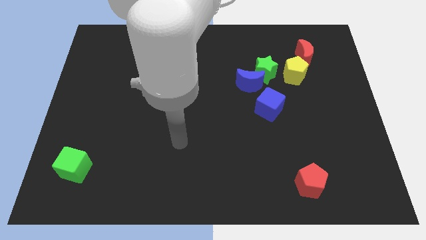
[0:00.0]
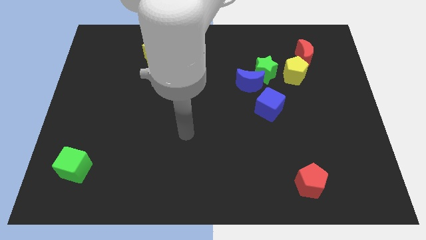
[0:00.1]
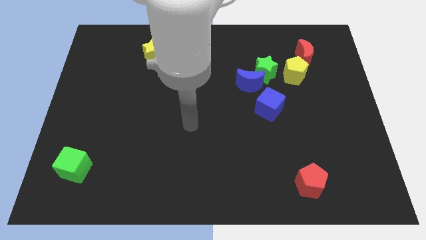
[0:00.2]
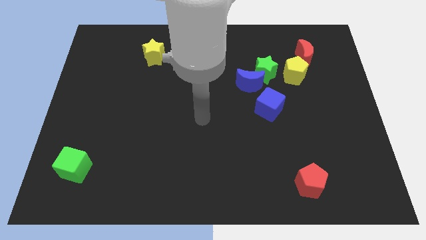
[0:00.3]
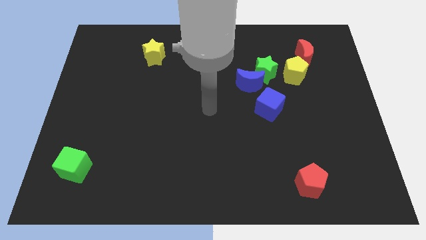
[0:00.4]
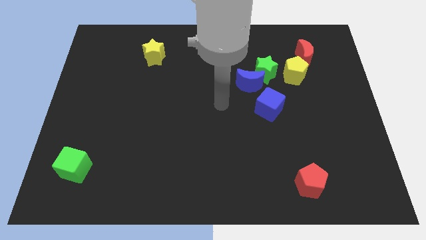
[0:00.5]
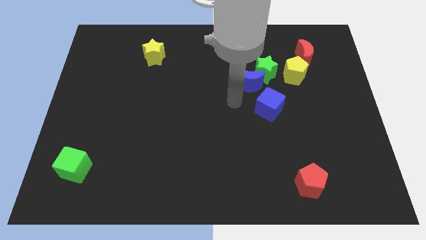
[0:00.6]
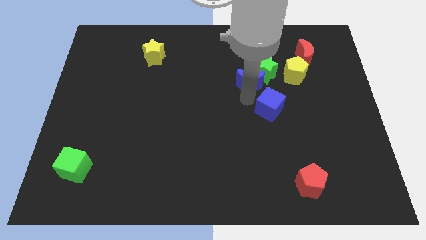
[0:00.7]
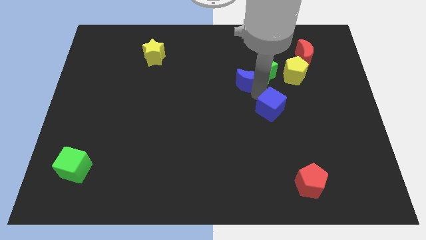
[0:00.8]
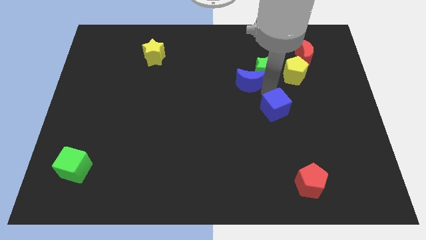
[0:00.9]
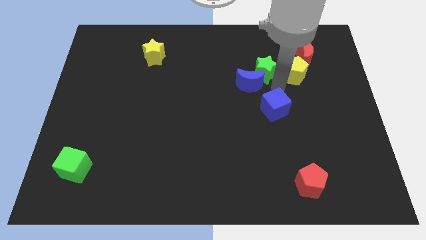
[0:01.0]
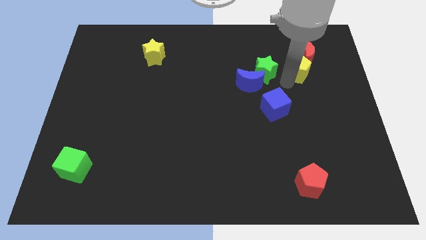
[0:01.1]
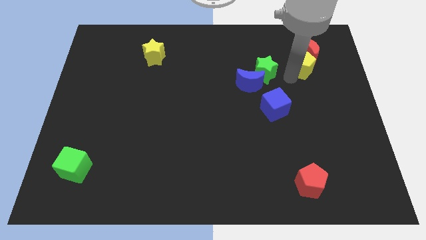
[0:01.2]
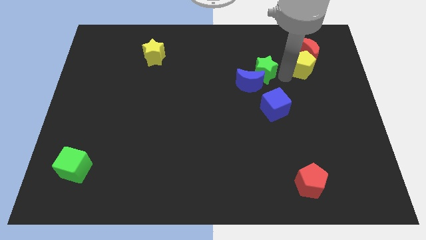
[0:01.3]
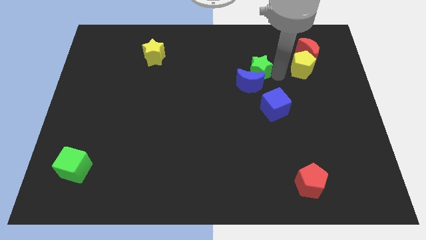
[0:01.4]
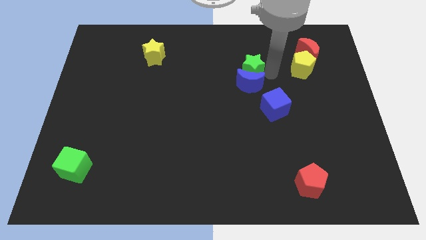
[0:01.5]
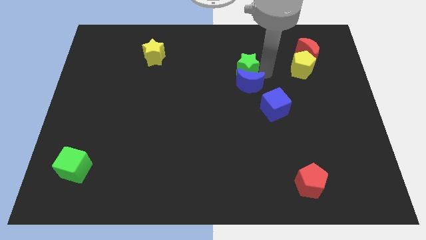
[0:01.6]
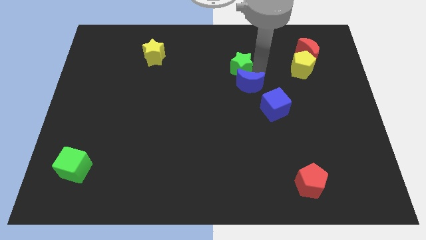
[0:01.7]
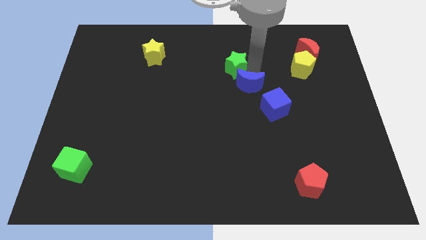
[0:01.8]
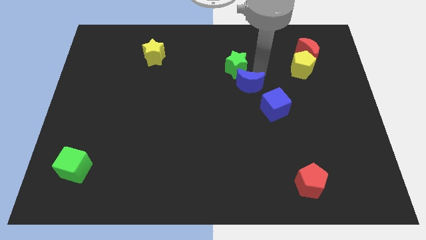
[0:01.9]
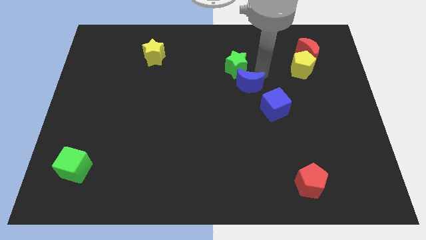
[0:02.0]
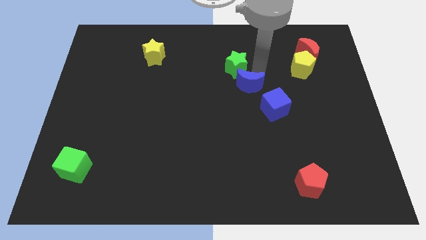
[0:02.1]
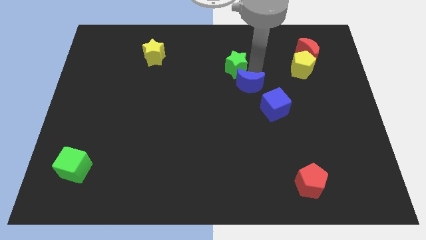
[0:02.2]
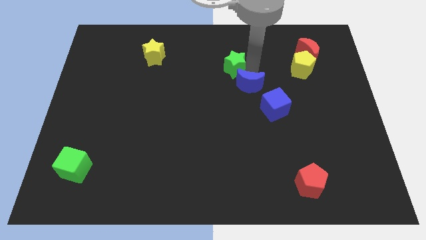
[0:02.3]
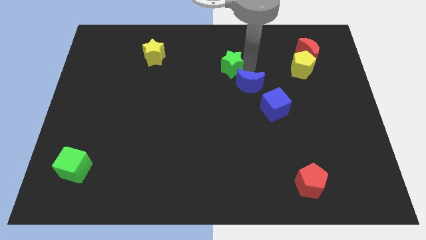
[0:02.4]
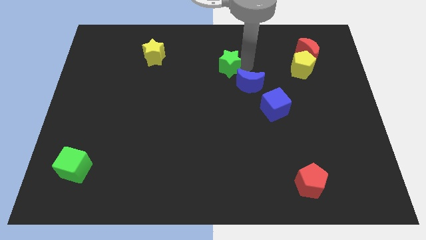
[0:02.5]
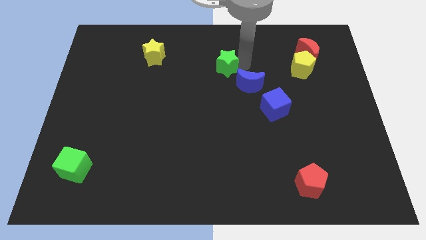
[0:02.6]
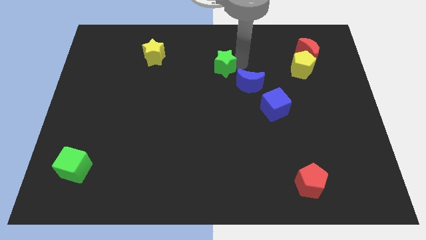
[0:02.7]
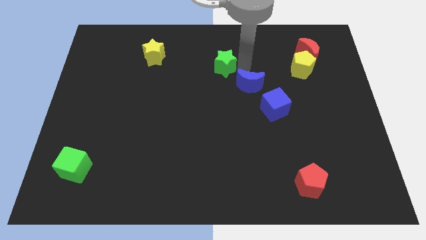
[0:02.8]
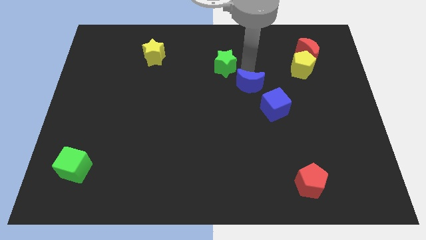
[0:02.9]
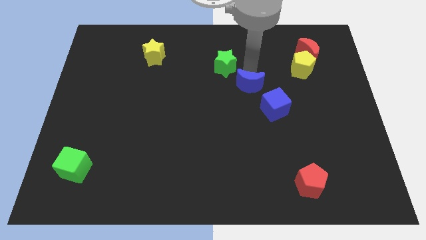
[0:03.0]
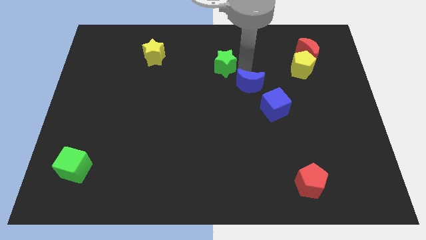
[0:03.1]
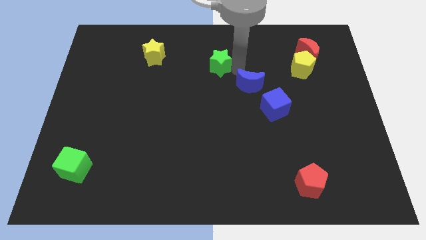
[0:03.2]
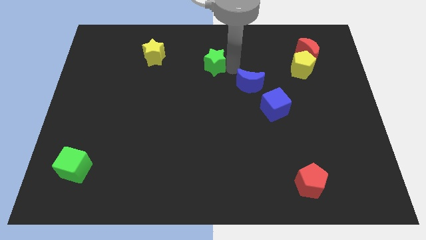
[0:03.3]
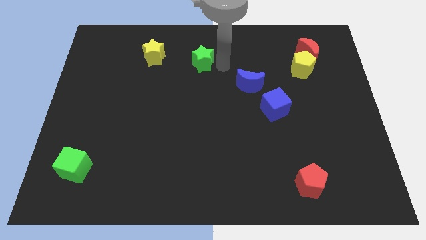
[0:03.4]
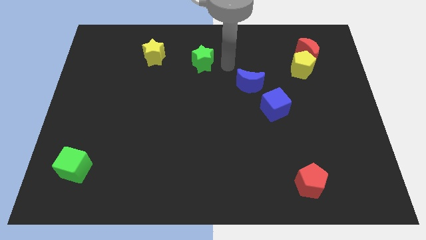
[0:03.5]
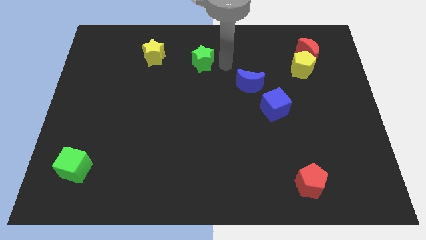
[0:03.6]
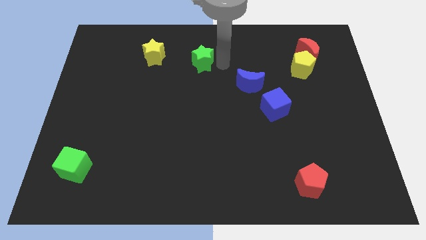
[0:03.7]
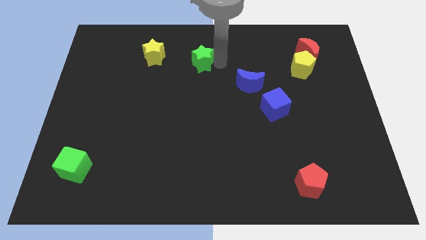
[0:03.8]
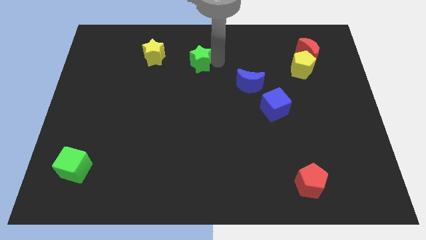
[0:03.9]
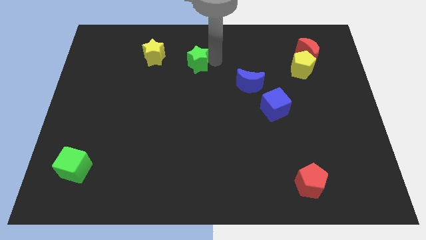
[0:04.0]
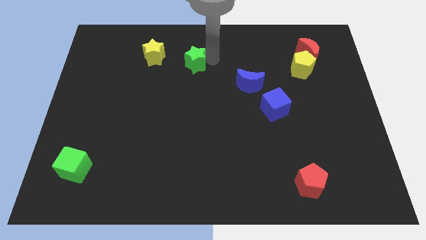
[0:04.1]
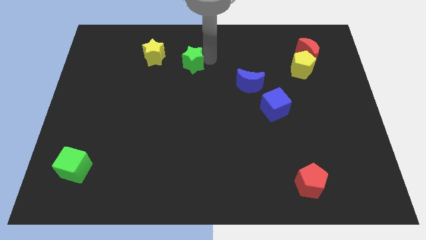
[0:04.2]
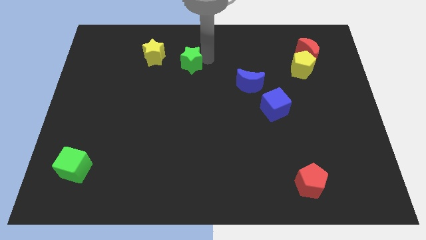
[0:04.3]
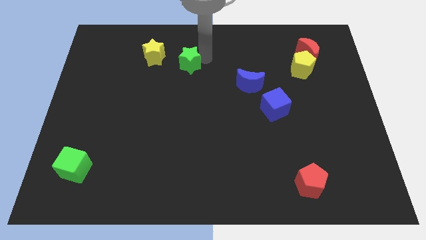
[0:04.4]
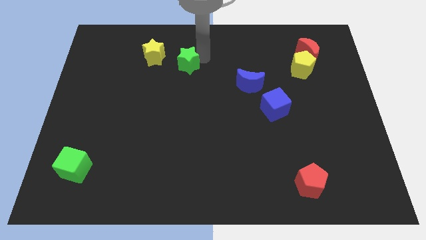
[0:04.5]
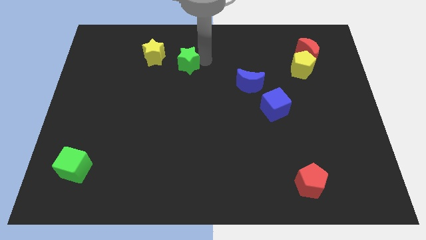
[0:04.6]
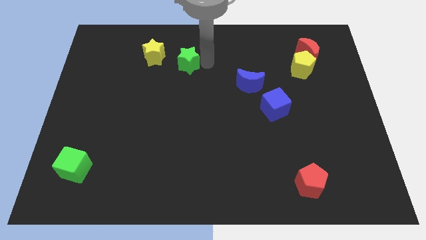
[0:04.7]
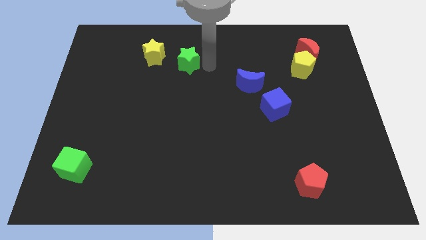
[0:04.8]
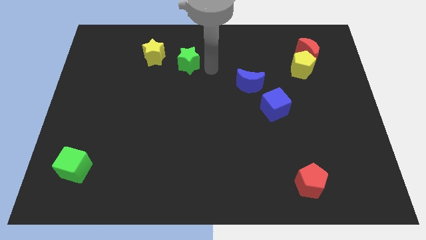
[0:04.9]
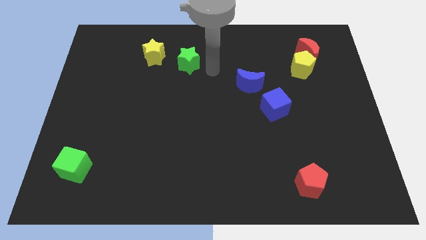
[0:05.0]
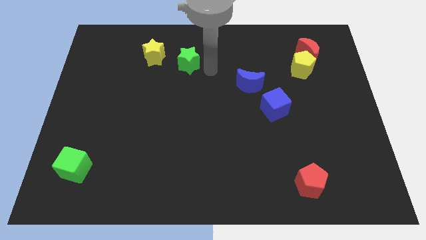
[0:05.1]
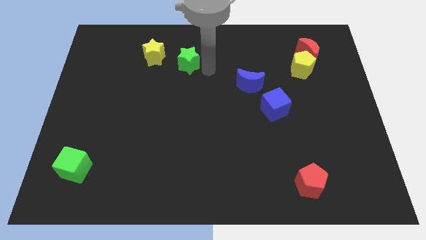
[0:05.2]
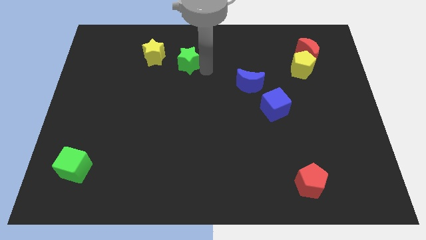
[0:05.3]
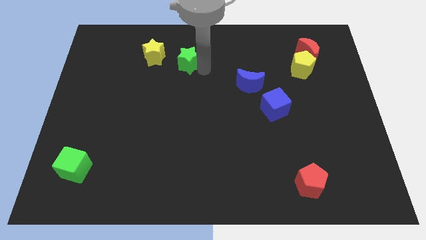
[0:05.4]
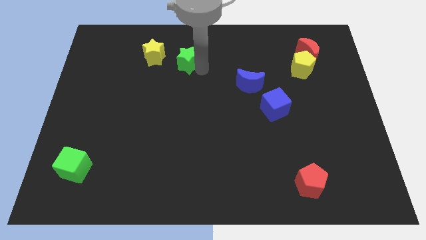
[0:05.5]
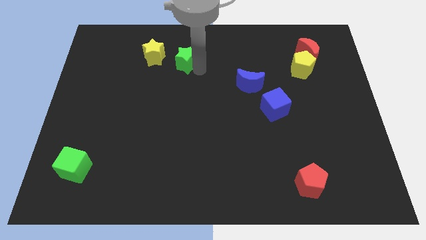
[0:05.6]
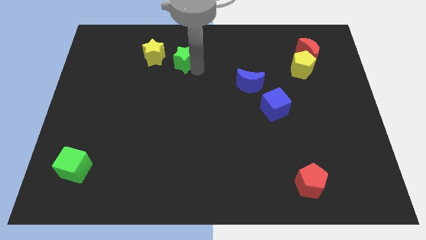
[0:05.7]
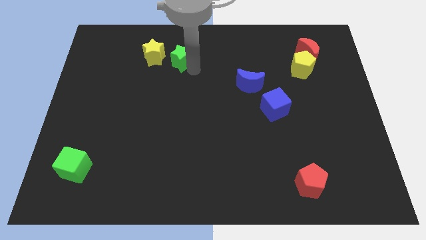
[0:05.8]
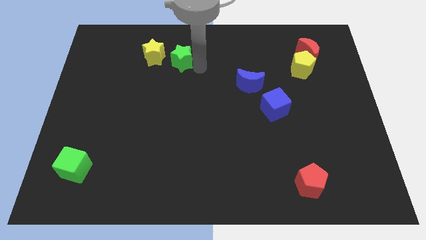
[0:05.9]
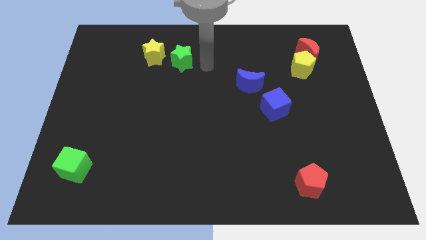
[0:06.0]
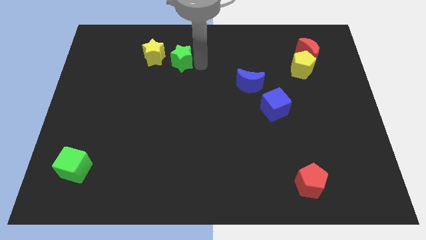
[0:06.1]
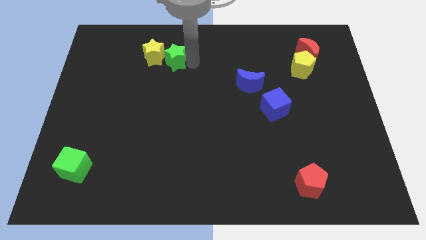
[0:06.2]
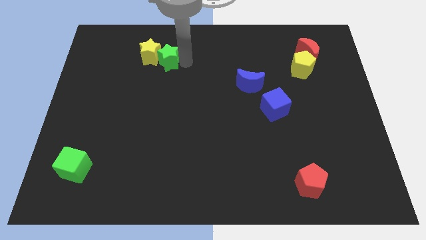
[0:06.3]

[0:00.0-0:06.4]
slide the green star to the yellow star

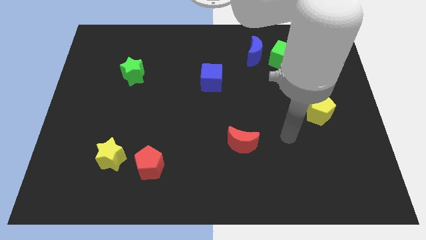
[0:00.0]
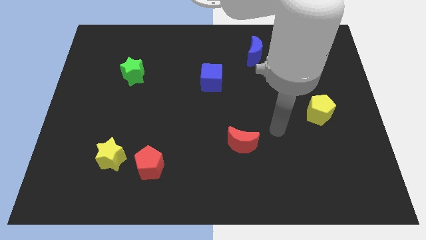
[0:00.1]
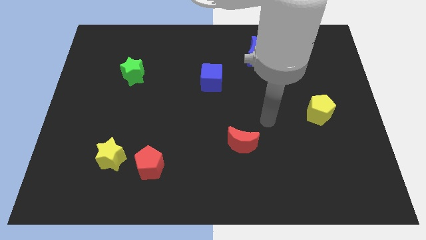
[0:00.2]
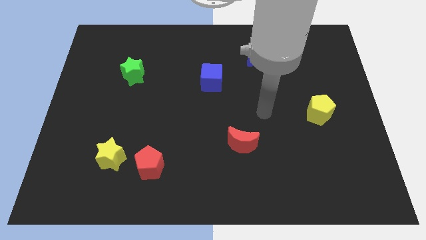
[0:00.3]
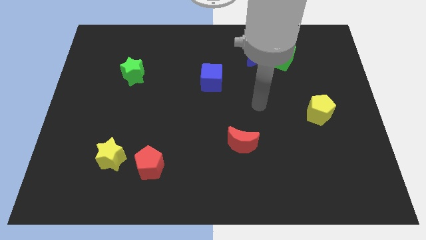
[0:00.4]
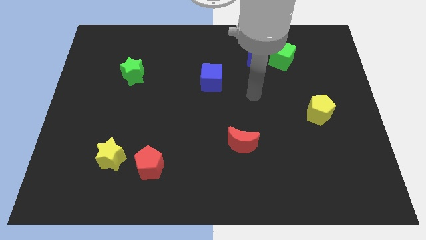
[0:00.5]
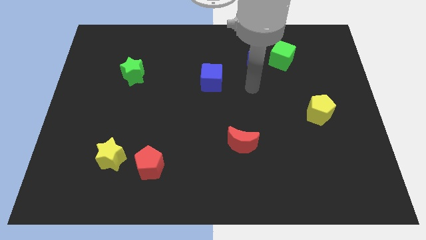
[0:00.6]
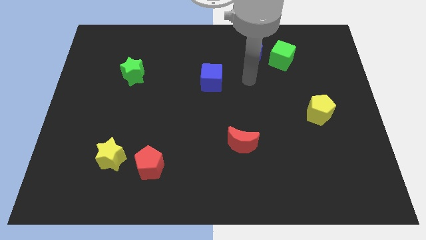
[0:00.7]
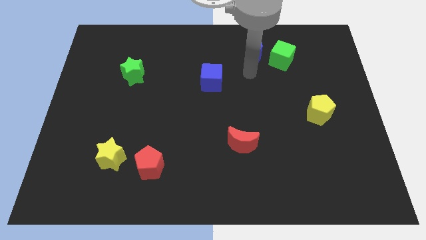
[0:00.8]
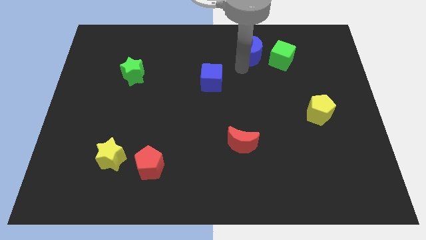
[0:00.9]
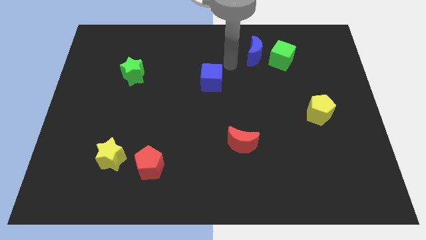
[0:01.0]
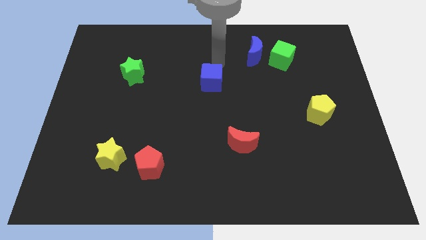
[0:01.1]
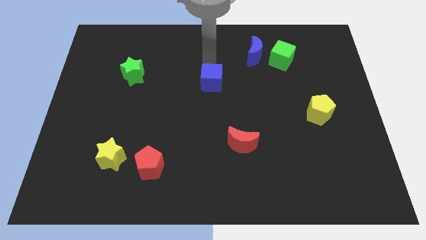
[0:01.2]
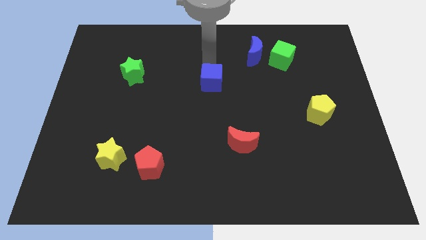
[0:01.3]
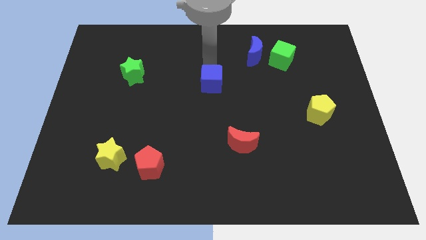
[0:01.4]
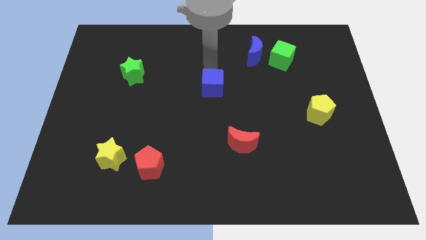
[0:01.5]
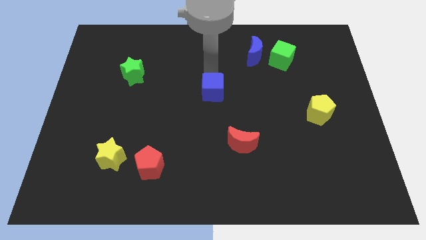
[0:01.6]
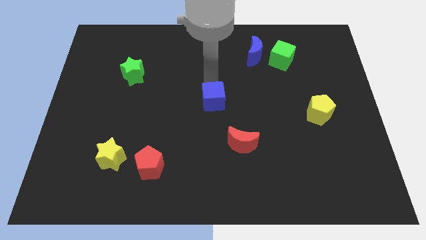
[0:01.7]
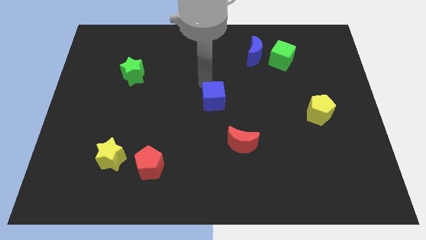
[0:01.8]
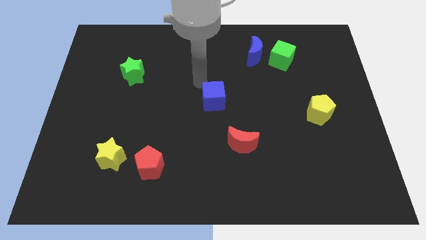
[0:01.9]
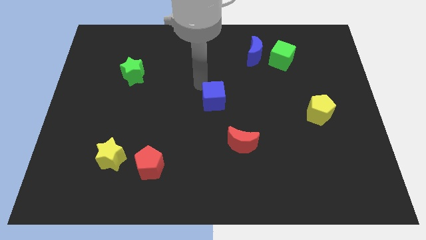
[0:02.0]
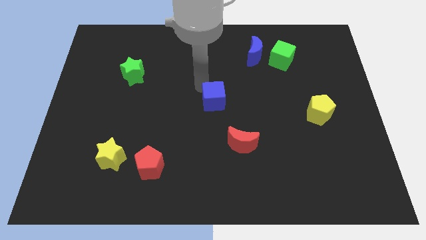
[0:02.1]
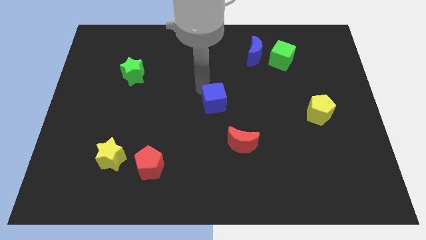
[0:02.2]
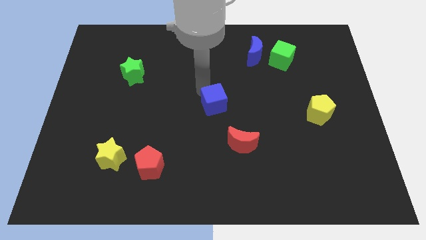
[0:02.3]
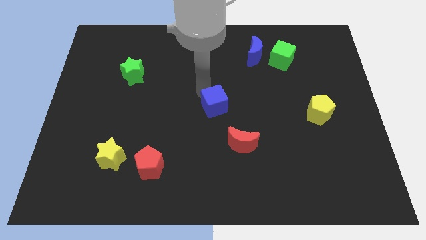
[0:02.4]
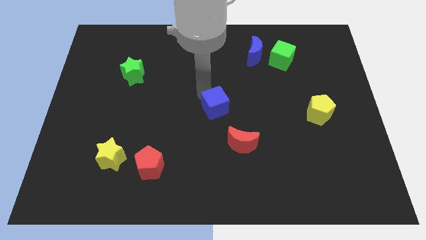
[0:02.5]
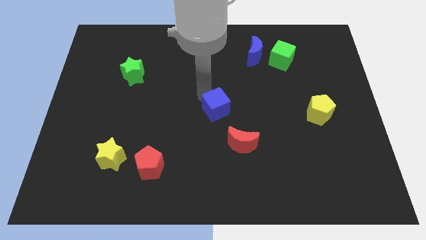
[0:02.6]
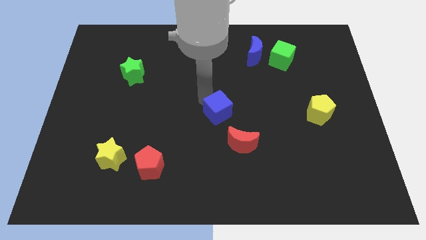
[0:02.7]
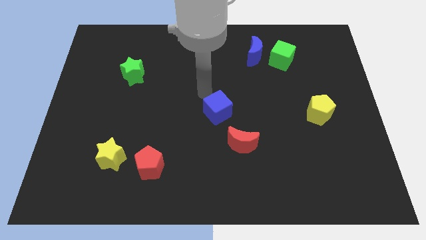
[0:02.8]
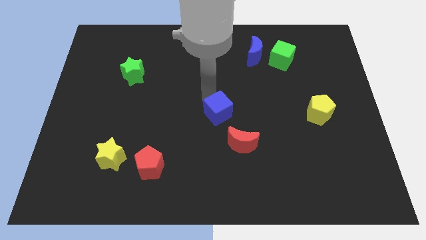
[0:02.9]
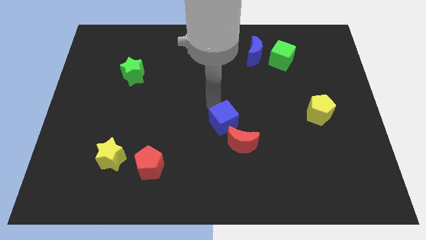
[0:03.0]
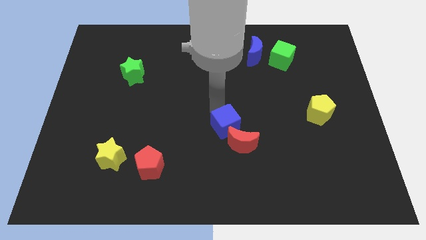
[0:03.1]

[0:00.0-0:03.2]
put the blue cube next to the red moon
